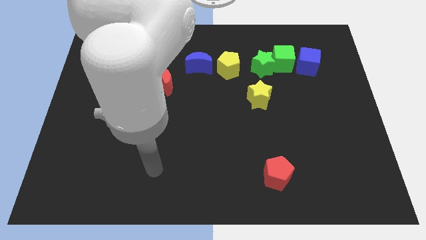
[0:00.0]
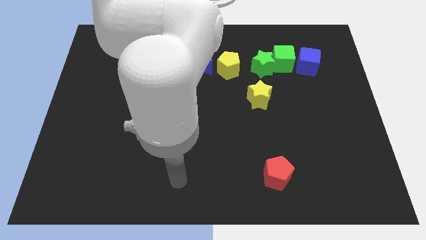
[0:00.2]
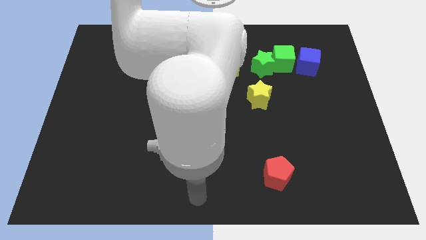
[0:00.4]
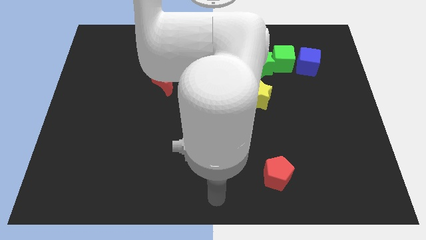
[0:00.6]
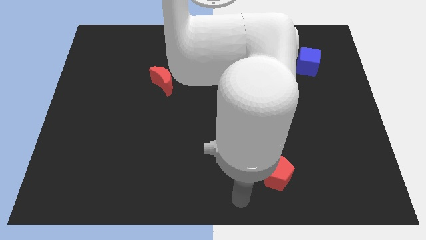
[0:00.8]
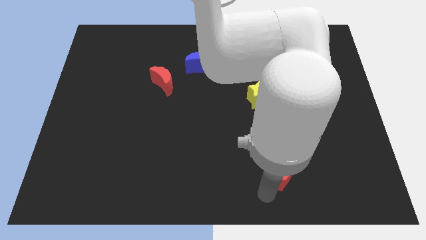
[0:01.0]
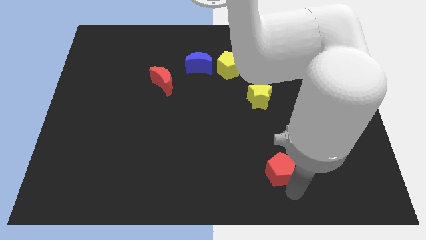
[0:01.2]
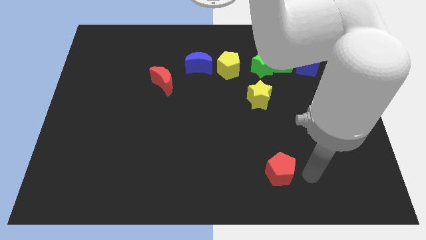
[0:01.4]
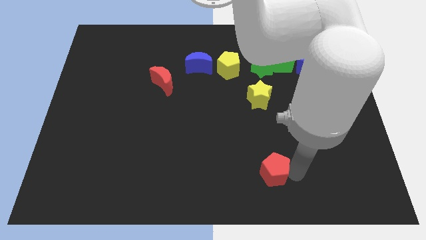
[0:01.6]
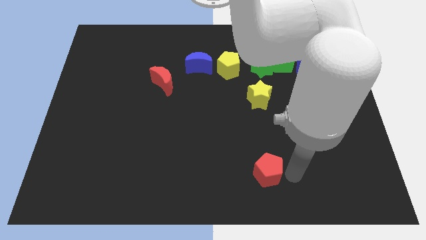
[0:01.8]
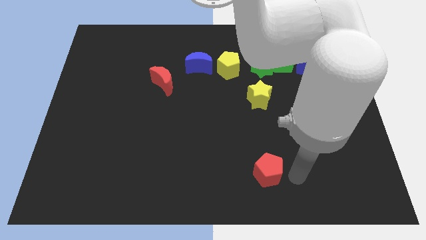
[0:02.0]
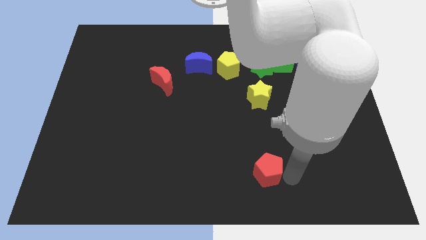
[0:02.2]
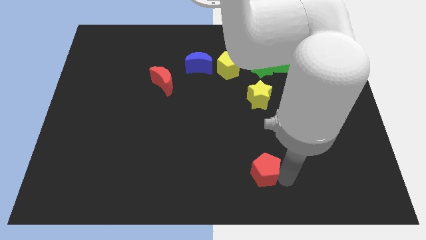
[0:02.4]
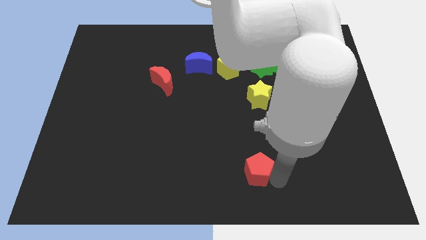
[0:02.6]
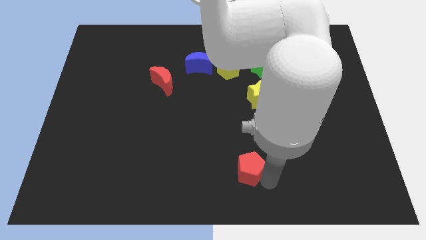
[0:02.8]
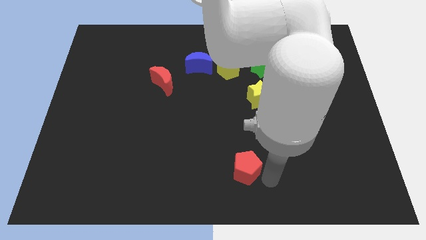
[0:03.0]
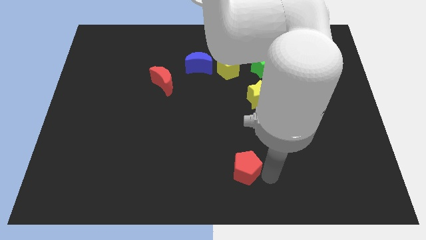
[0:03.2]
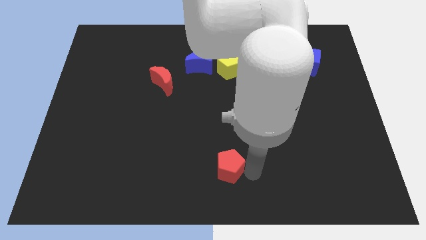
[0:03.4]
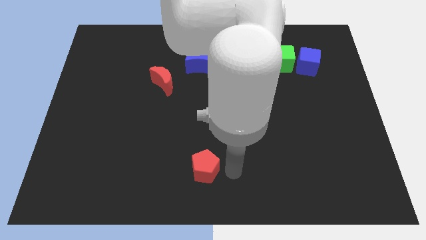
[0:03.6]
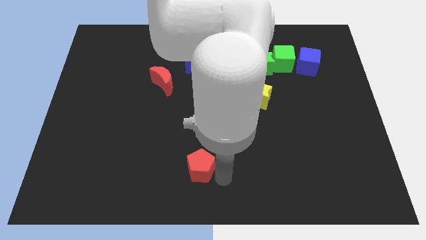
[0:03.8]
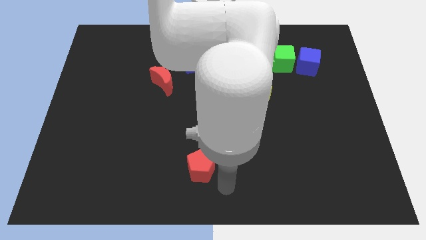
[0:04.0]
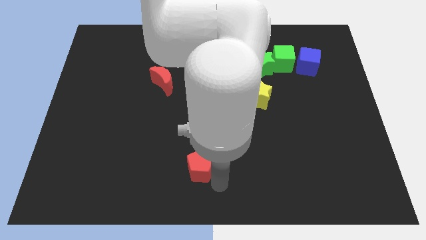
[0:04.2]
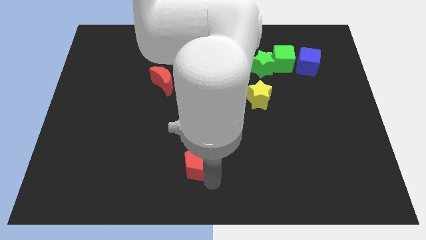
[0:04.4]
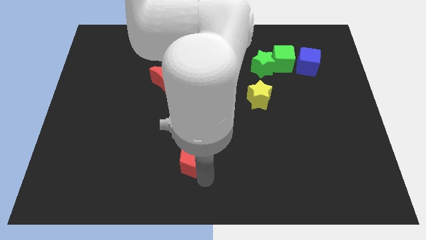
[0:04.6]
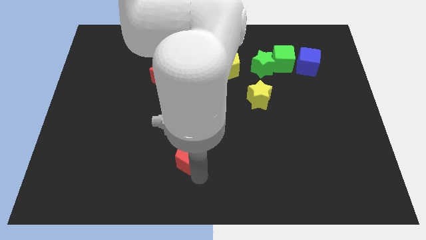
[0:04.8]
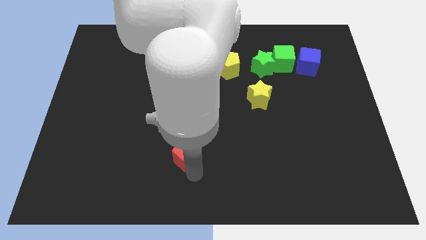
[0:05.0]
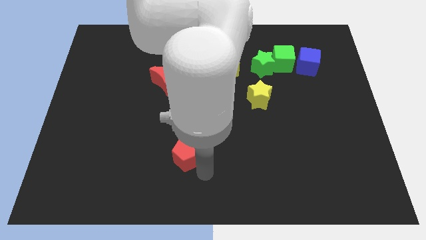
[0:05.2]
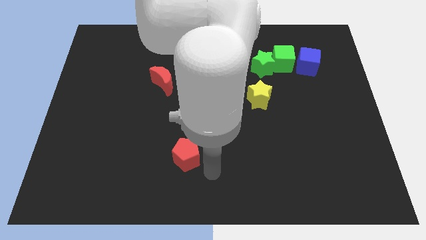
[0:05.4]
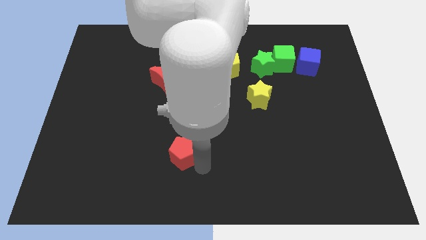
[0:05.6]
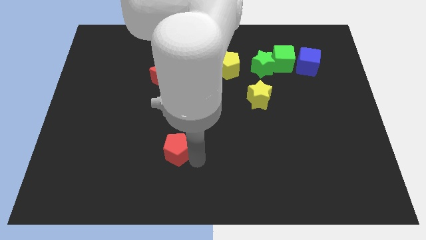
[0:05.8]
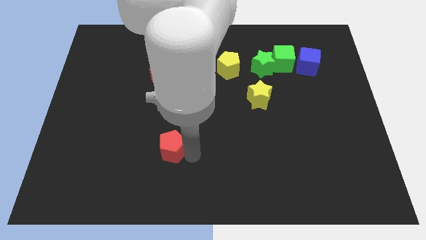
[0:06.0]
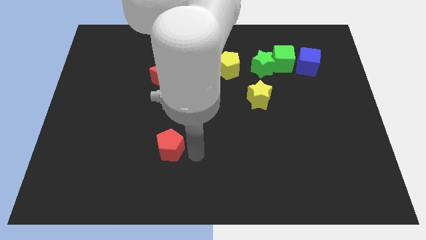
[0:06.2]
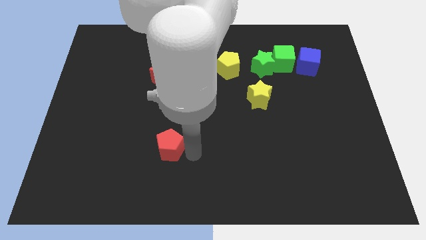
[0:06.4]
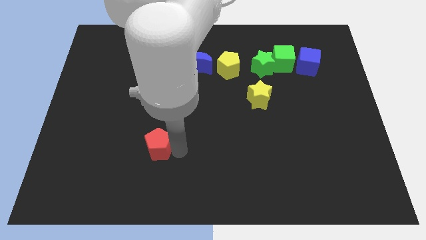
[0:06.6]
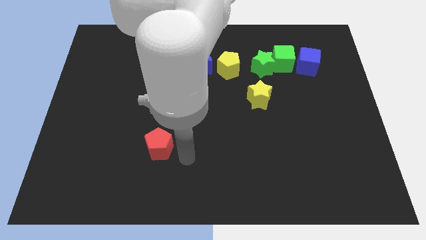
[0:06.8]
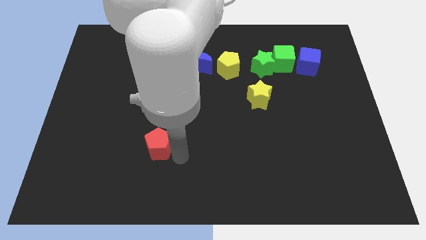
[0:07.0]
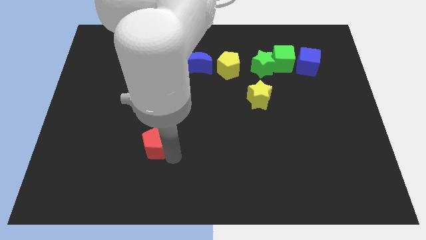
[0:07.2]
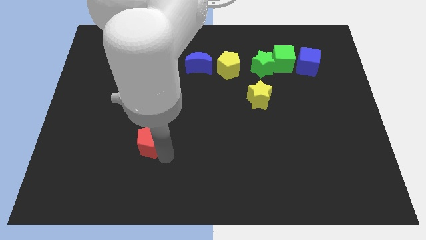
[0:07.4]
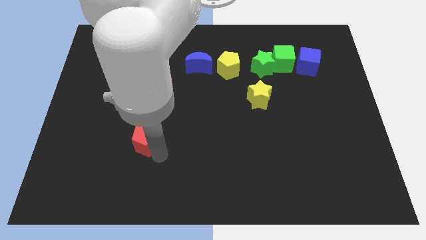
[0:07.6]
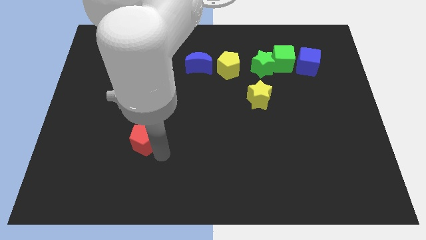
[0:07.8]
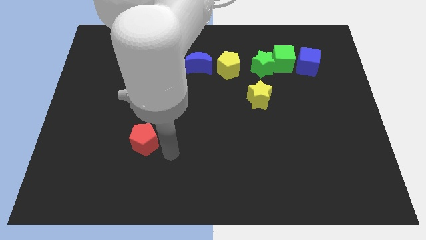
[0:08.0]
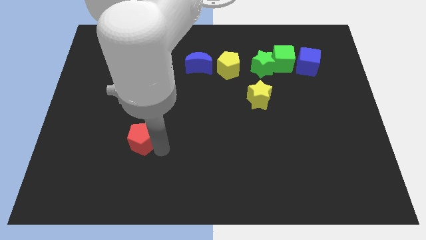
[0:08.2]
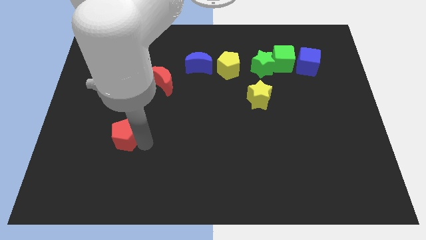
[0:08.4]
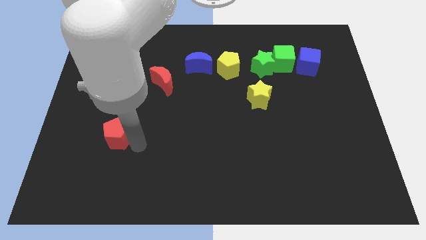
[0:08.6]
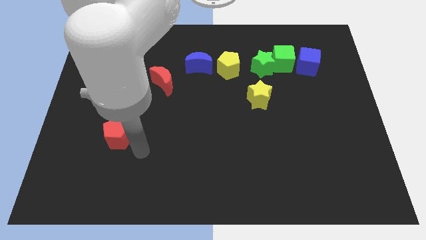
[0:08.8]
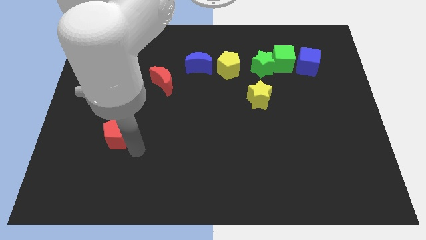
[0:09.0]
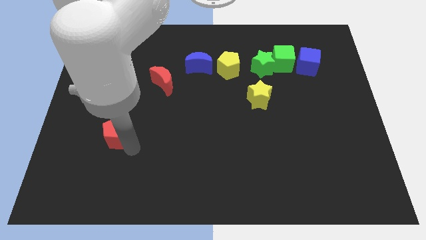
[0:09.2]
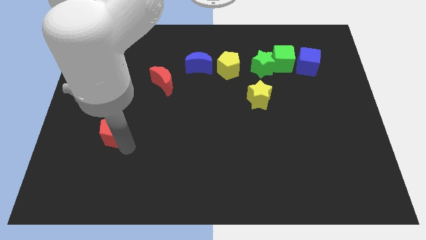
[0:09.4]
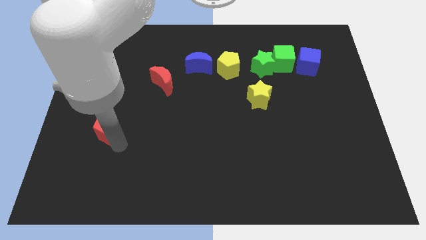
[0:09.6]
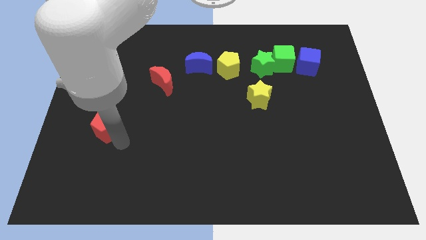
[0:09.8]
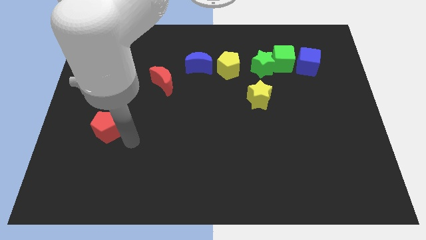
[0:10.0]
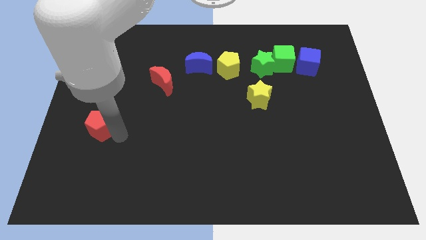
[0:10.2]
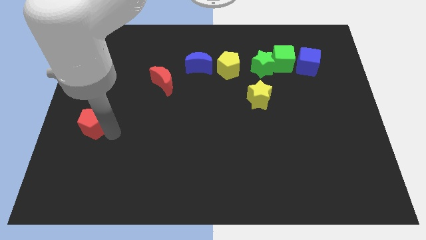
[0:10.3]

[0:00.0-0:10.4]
slide the red pentagon to the left side of the board
